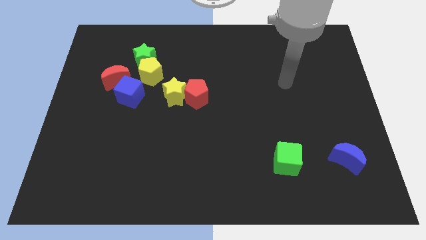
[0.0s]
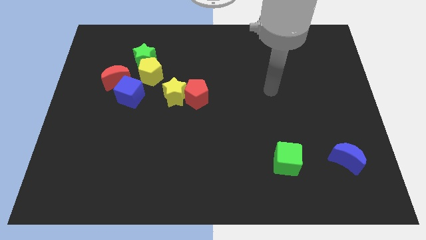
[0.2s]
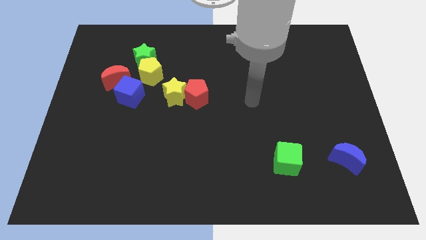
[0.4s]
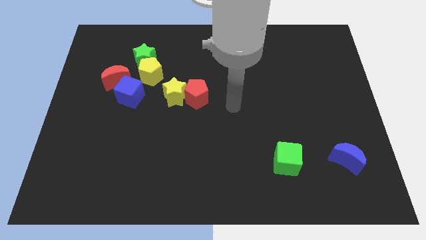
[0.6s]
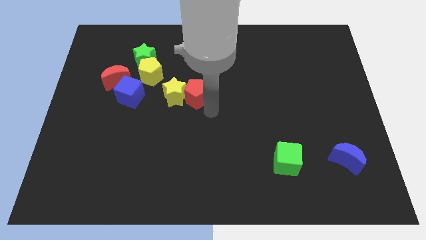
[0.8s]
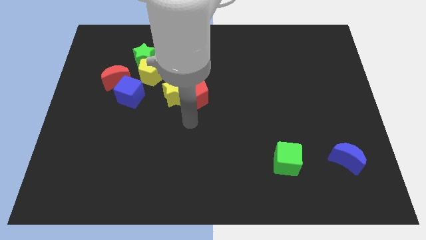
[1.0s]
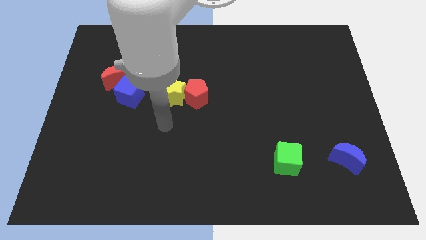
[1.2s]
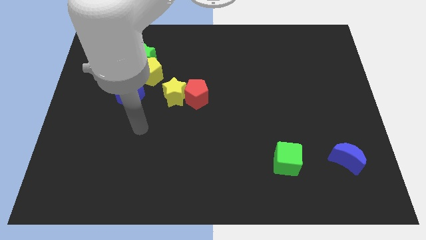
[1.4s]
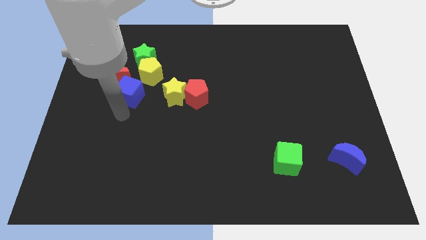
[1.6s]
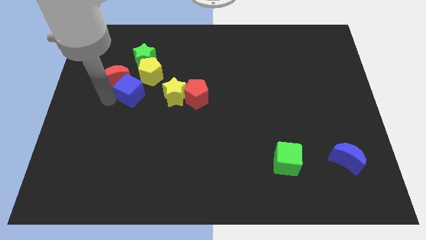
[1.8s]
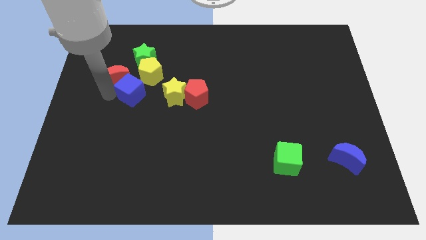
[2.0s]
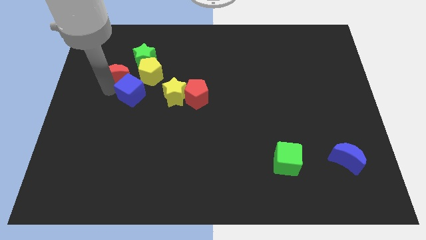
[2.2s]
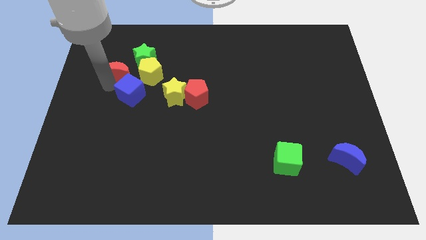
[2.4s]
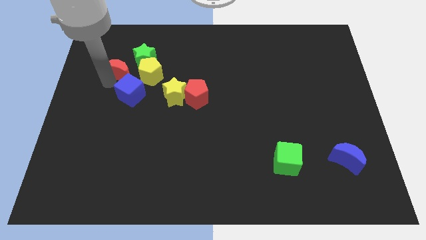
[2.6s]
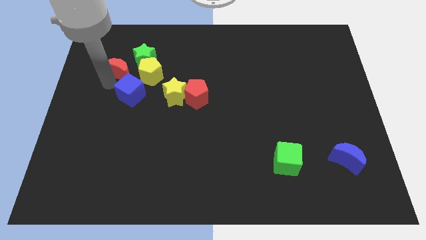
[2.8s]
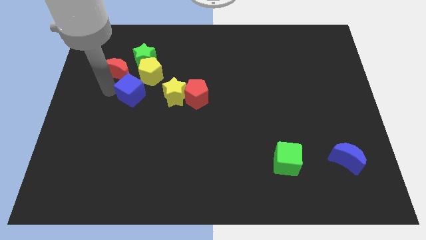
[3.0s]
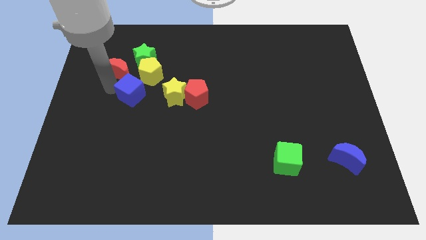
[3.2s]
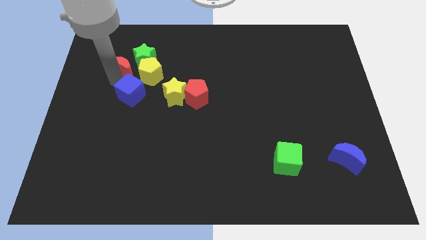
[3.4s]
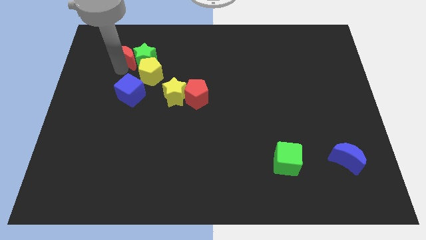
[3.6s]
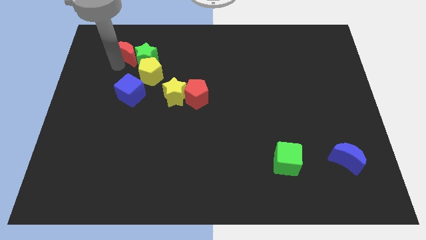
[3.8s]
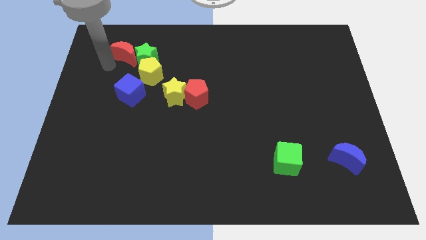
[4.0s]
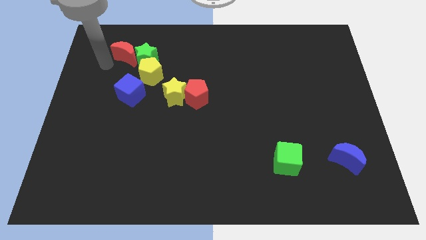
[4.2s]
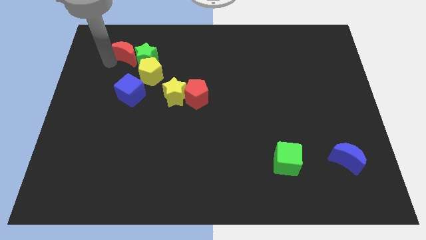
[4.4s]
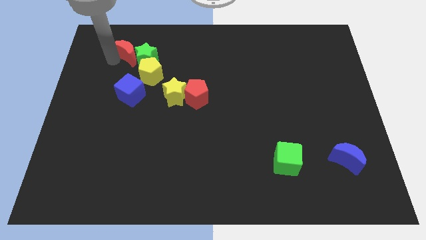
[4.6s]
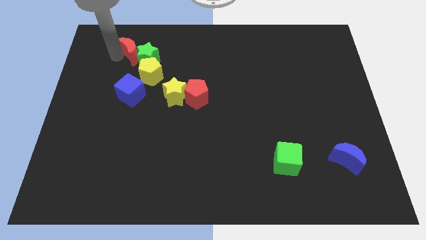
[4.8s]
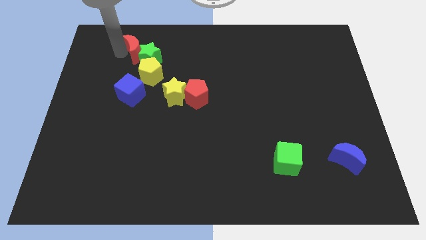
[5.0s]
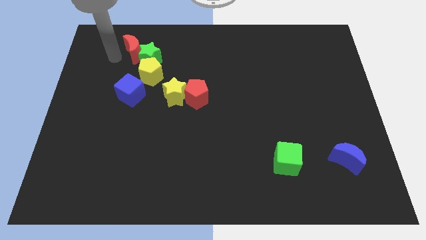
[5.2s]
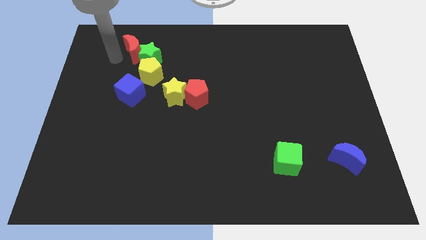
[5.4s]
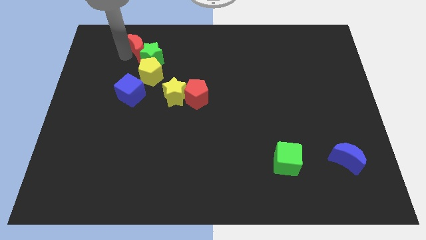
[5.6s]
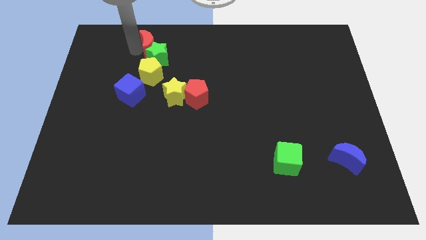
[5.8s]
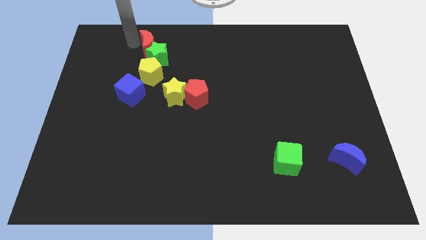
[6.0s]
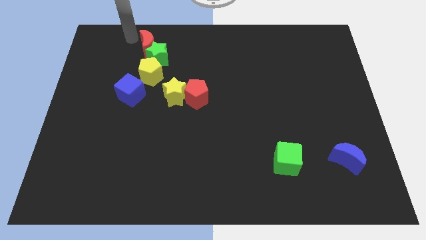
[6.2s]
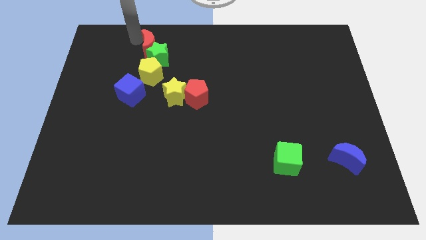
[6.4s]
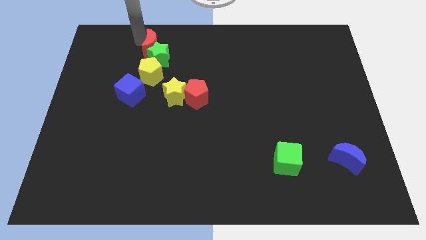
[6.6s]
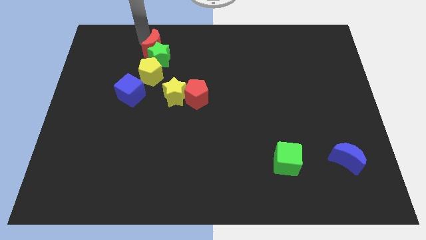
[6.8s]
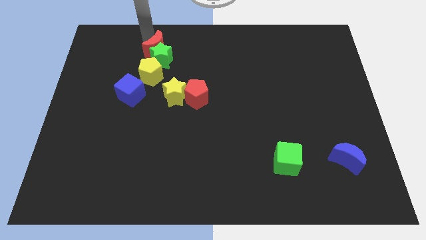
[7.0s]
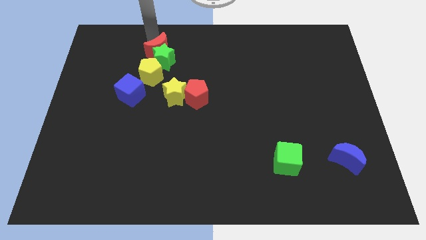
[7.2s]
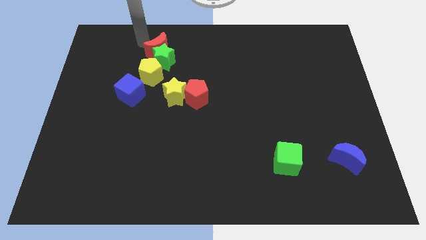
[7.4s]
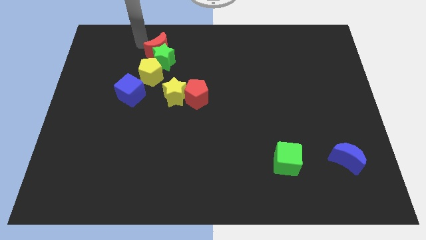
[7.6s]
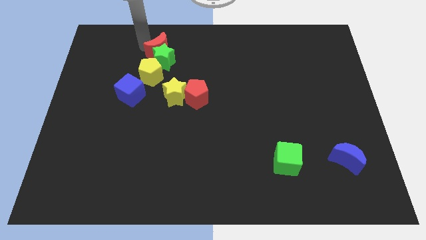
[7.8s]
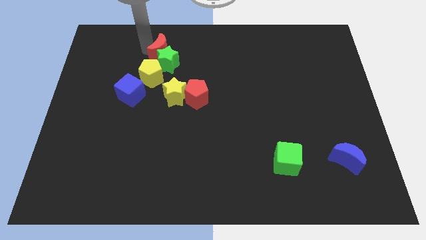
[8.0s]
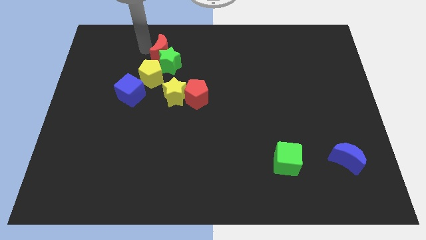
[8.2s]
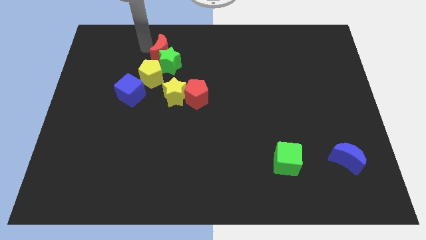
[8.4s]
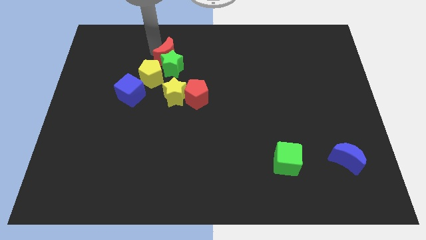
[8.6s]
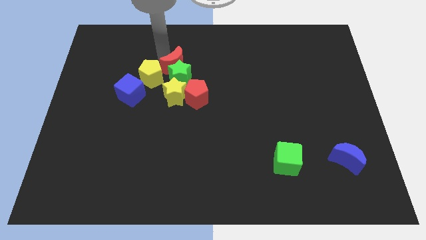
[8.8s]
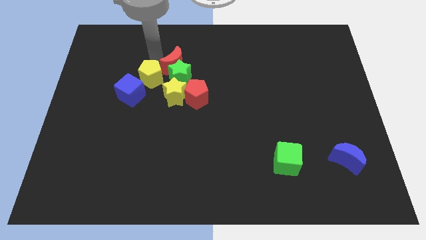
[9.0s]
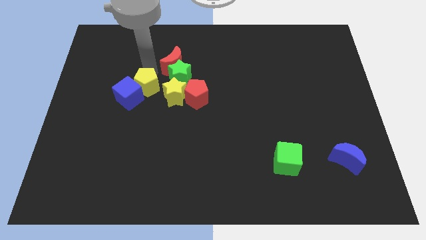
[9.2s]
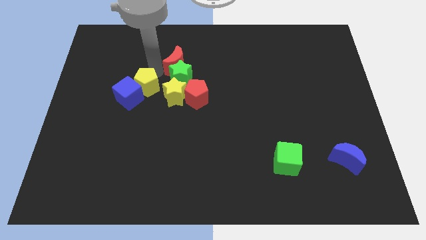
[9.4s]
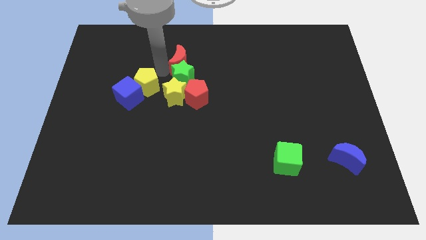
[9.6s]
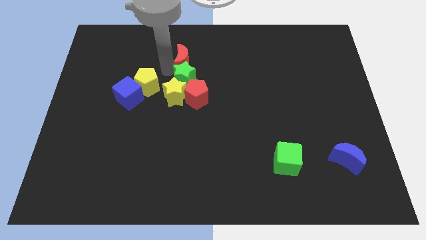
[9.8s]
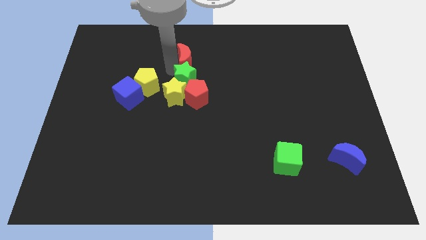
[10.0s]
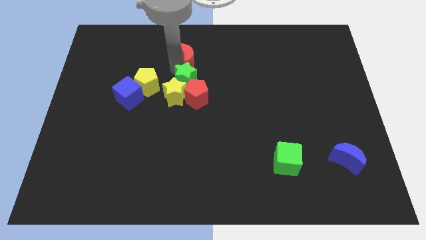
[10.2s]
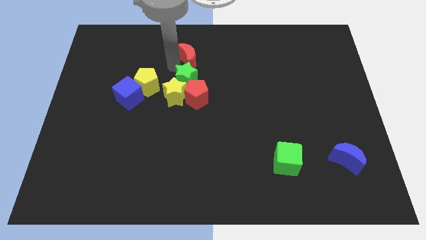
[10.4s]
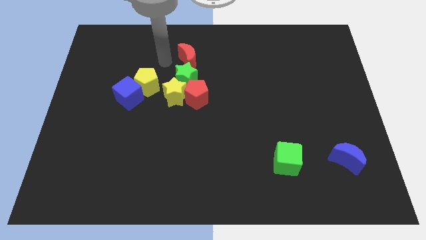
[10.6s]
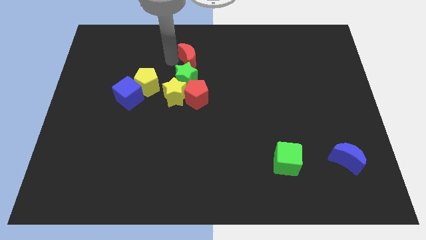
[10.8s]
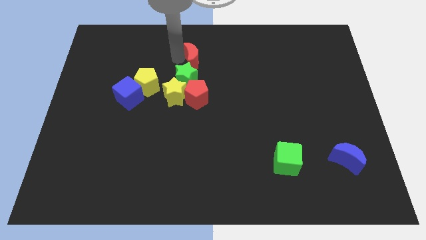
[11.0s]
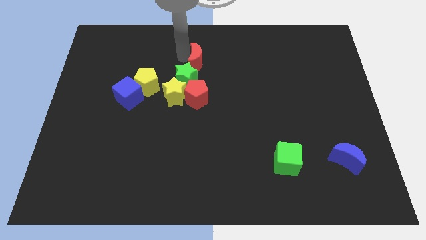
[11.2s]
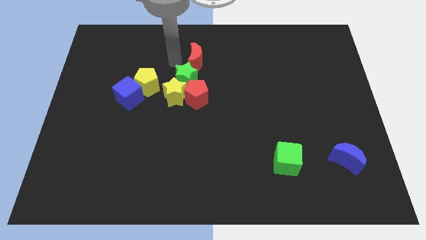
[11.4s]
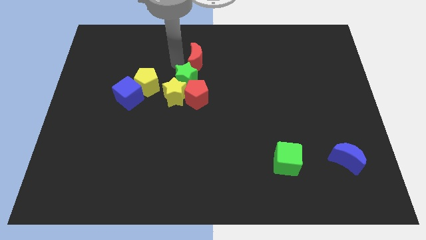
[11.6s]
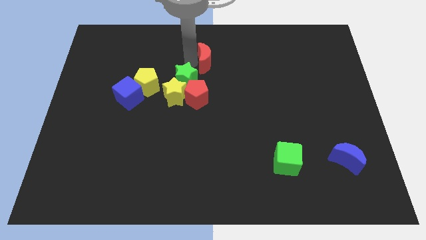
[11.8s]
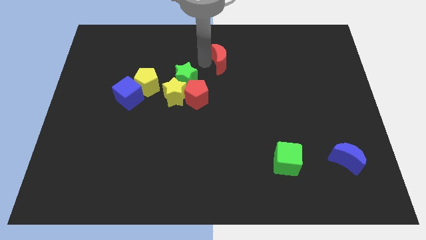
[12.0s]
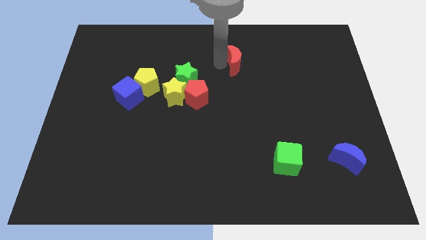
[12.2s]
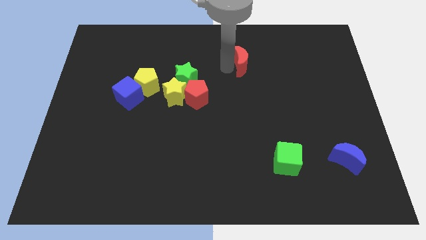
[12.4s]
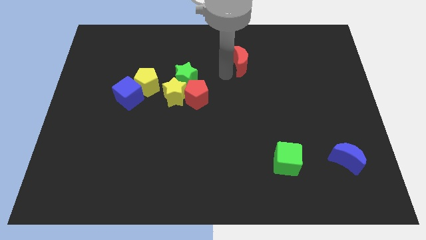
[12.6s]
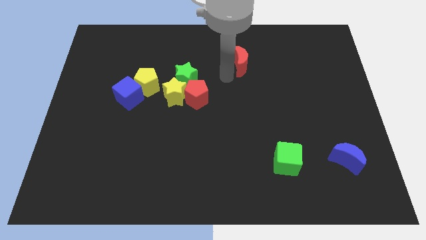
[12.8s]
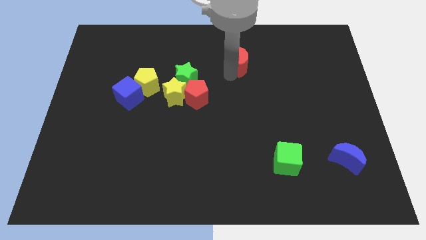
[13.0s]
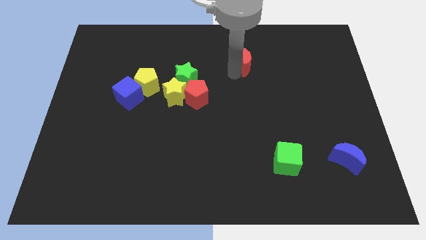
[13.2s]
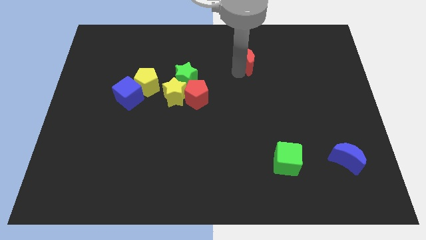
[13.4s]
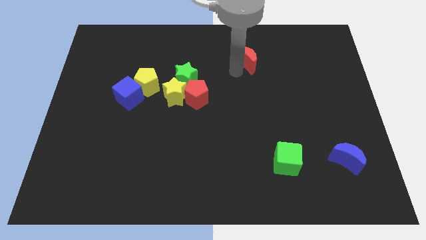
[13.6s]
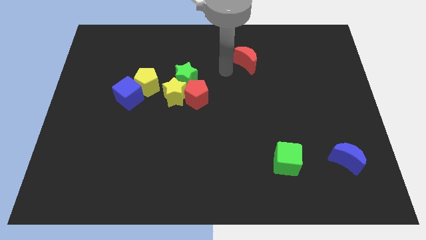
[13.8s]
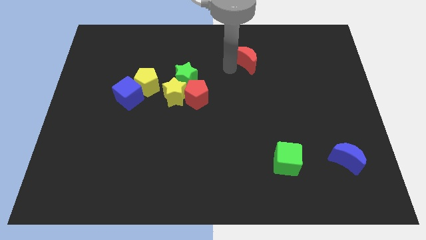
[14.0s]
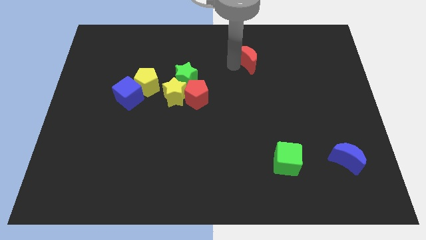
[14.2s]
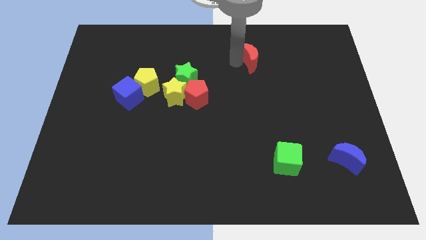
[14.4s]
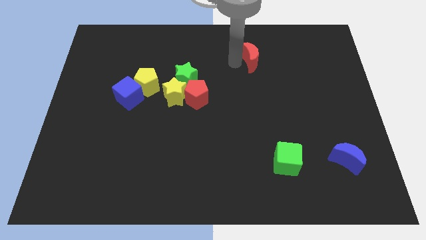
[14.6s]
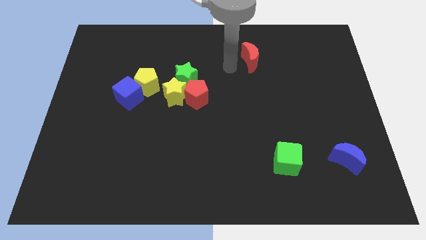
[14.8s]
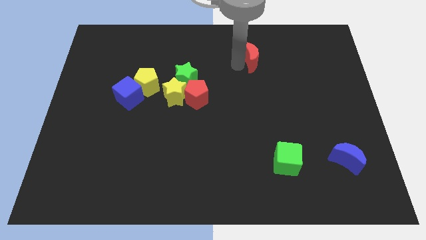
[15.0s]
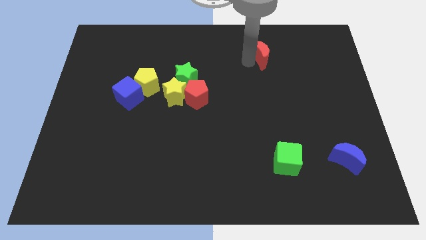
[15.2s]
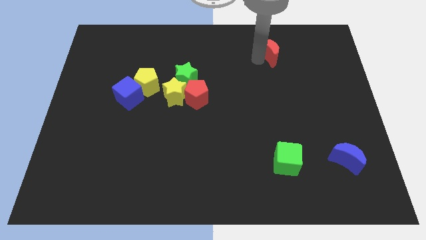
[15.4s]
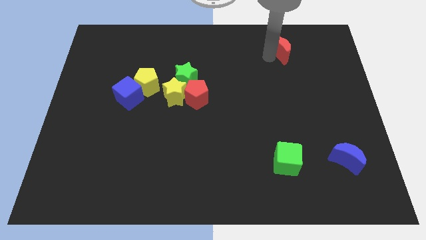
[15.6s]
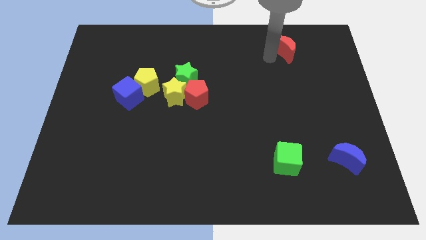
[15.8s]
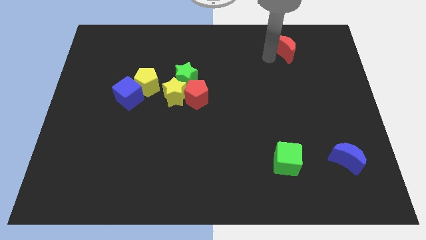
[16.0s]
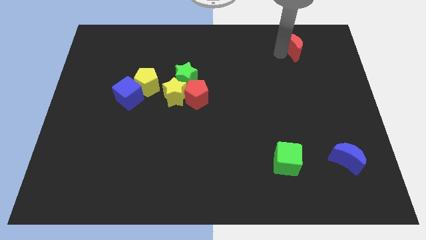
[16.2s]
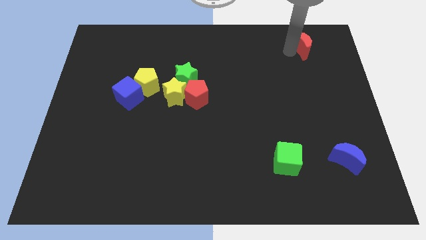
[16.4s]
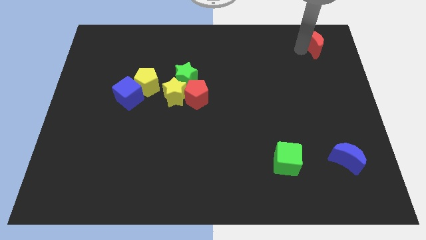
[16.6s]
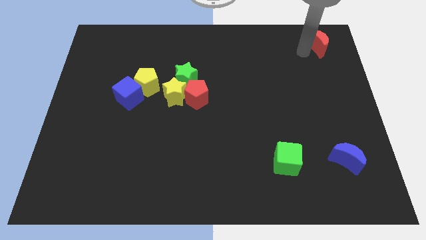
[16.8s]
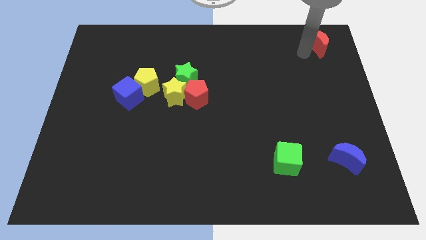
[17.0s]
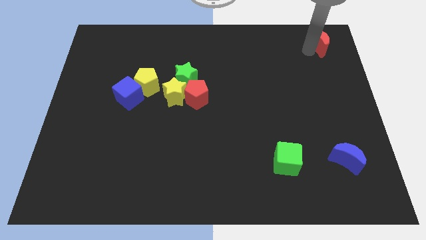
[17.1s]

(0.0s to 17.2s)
move the red moon to the top right of the board
